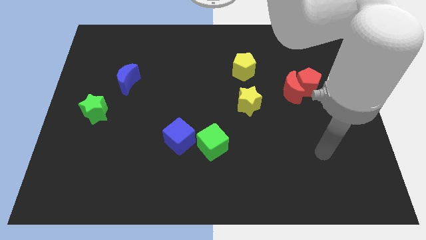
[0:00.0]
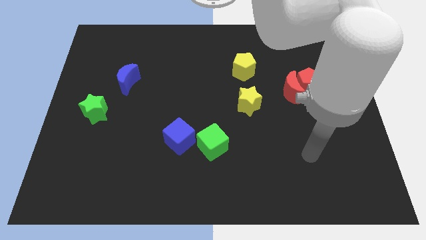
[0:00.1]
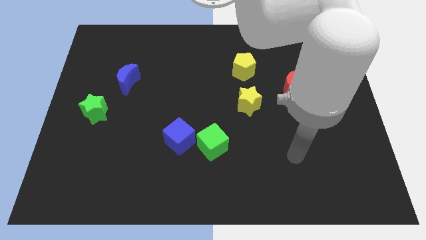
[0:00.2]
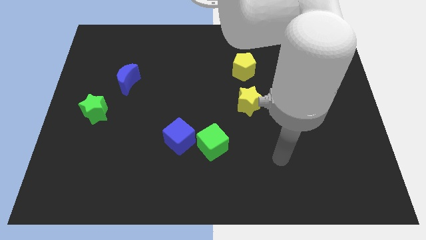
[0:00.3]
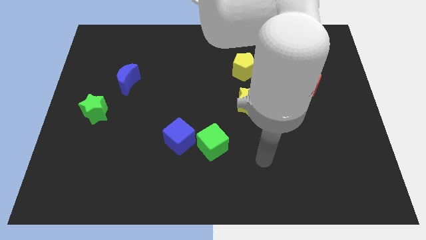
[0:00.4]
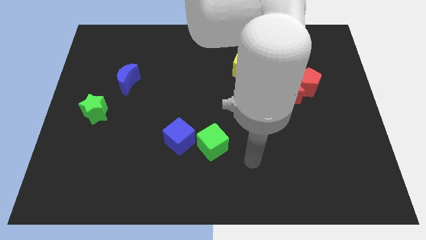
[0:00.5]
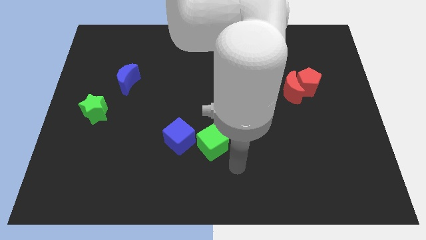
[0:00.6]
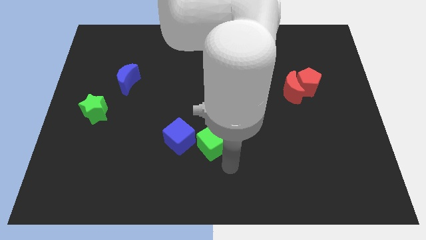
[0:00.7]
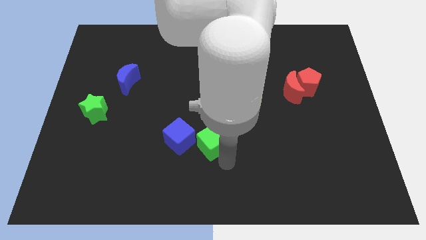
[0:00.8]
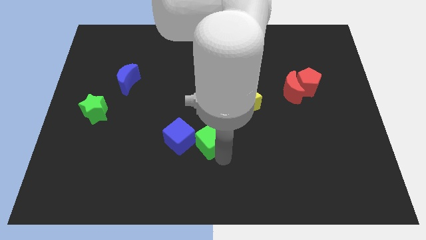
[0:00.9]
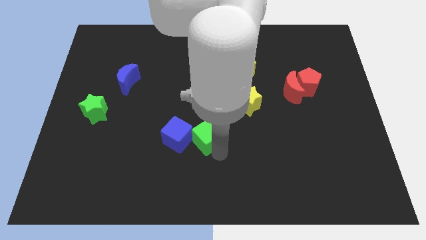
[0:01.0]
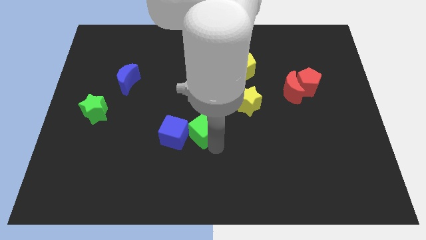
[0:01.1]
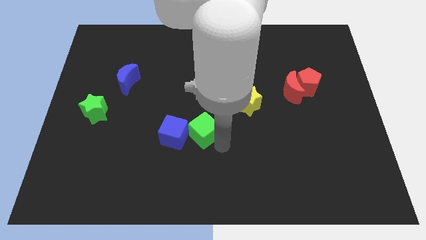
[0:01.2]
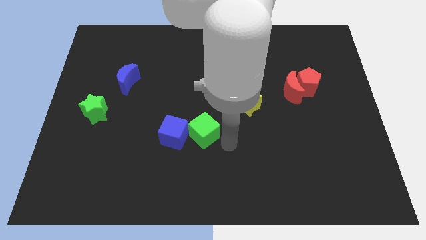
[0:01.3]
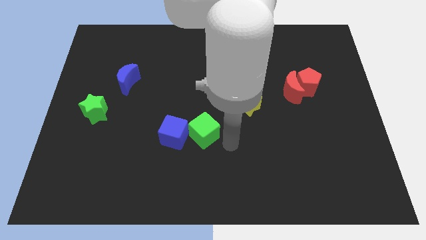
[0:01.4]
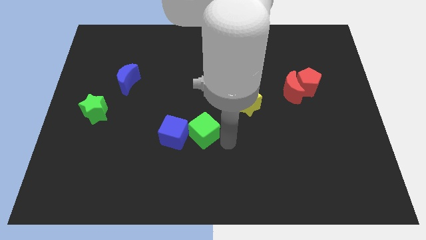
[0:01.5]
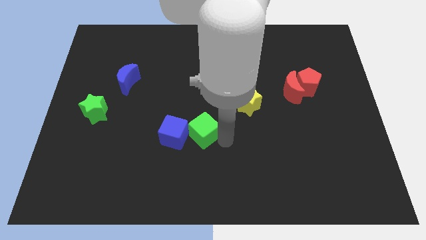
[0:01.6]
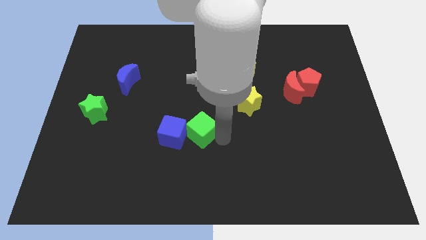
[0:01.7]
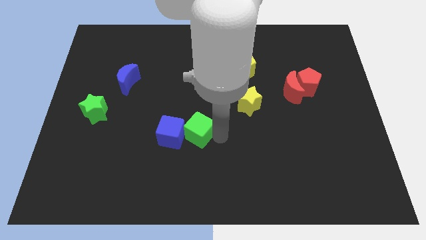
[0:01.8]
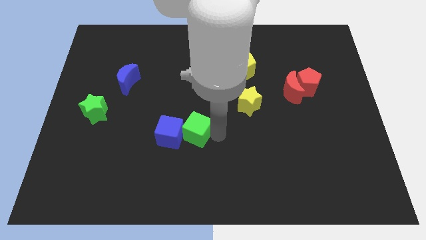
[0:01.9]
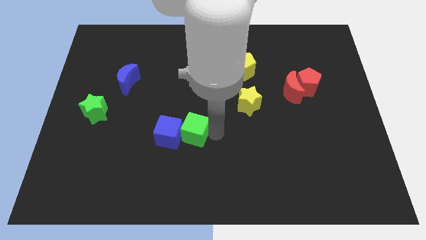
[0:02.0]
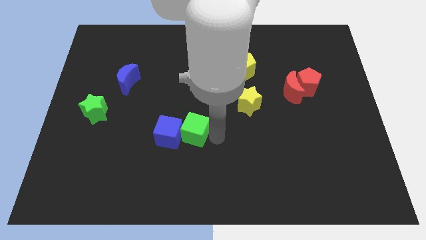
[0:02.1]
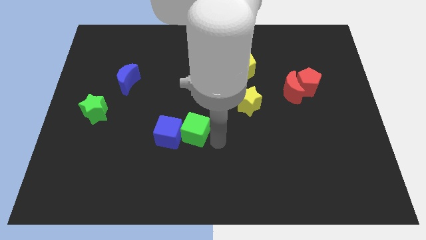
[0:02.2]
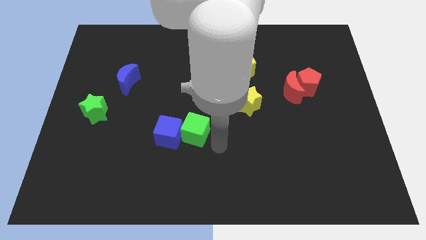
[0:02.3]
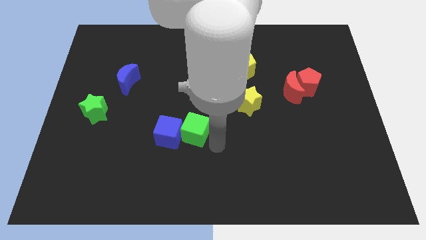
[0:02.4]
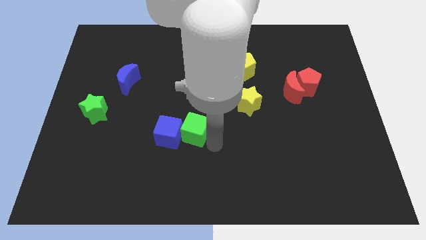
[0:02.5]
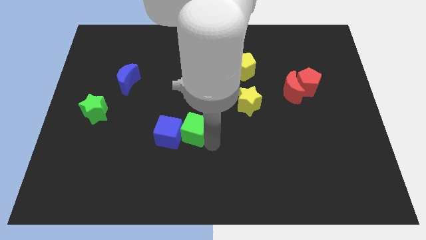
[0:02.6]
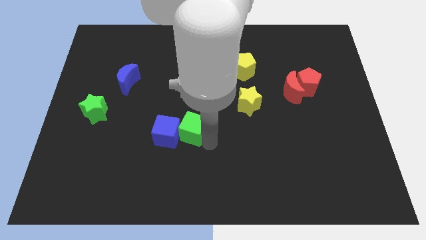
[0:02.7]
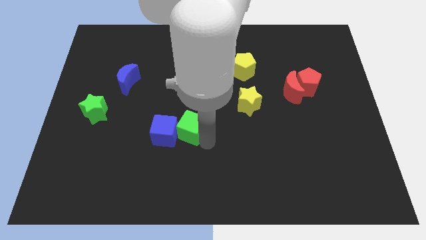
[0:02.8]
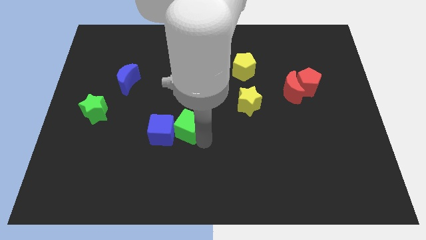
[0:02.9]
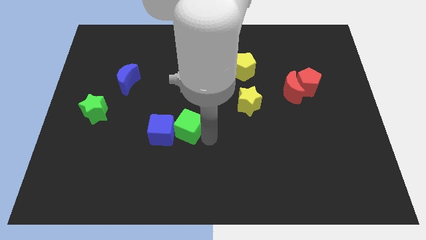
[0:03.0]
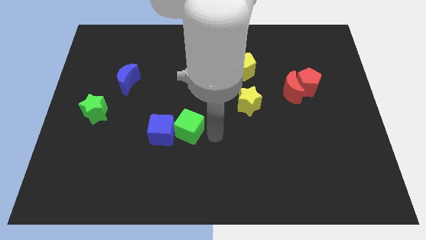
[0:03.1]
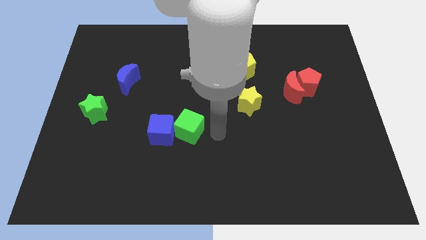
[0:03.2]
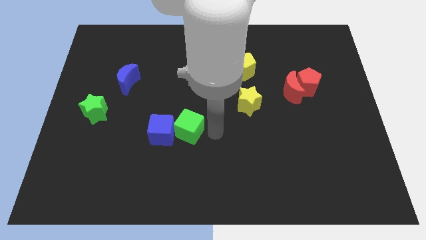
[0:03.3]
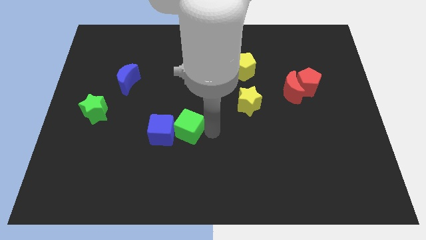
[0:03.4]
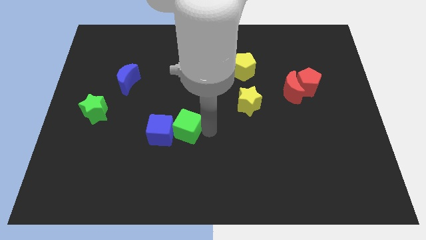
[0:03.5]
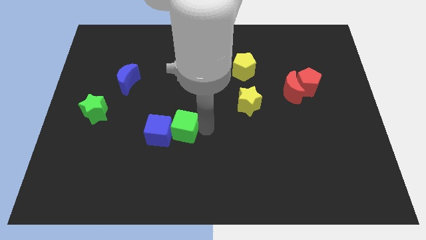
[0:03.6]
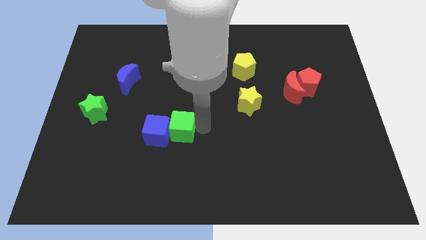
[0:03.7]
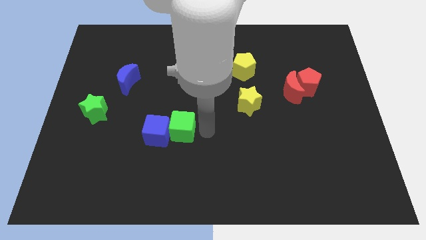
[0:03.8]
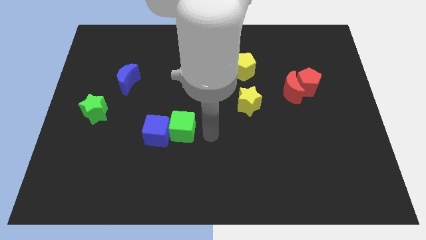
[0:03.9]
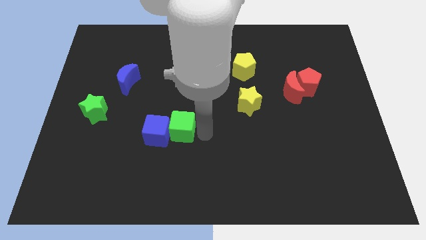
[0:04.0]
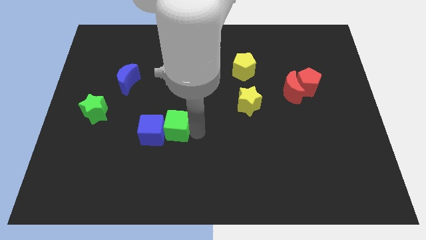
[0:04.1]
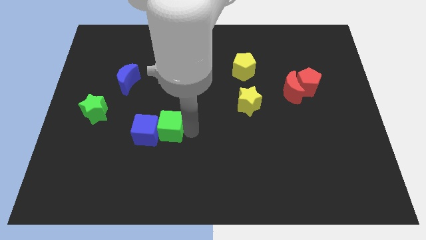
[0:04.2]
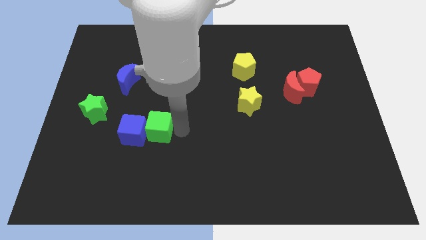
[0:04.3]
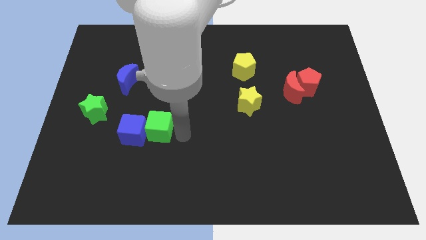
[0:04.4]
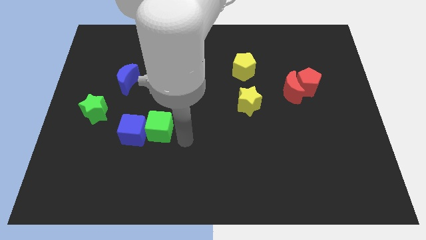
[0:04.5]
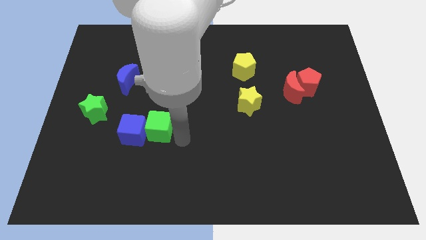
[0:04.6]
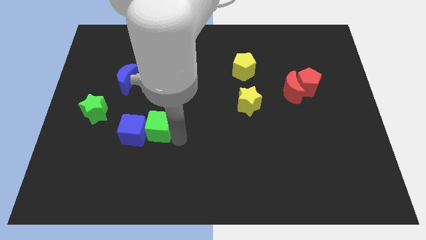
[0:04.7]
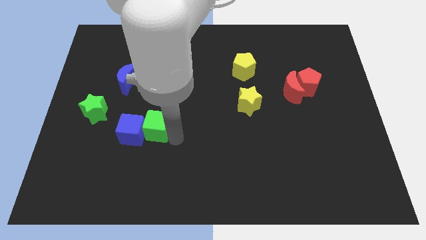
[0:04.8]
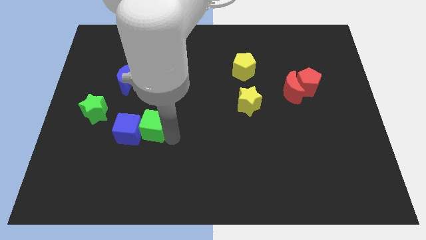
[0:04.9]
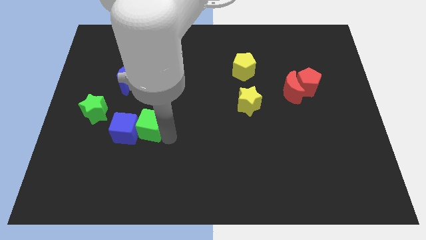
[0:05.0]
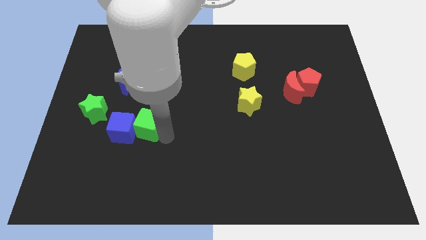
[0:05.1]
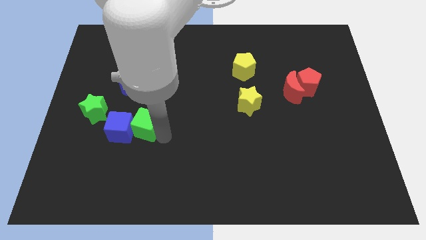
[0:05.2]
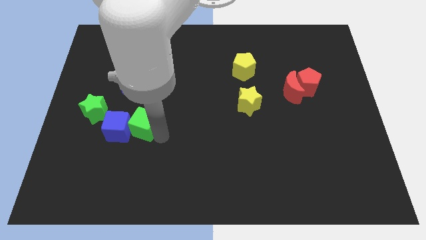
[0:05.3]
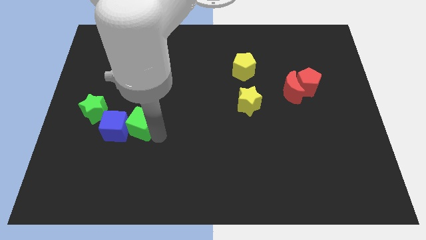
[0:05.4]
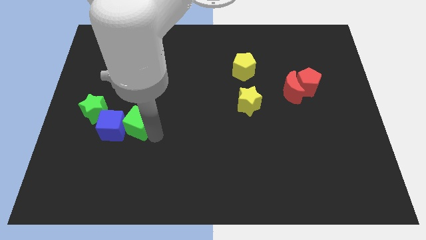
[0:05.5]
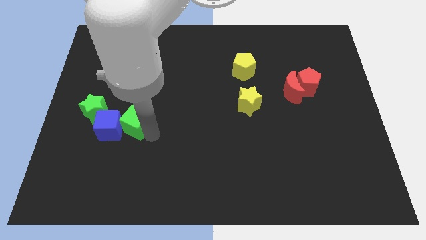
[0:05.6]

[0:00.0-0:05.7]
push the green cube below the blue moon

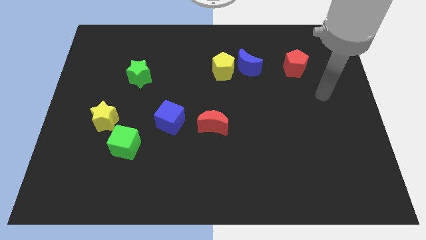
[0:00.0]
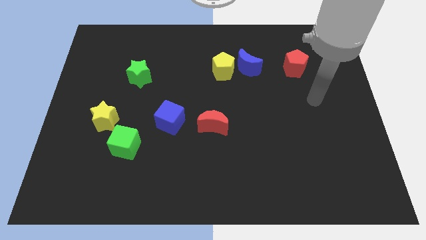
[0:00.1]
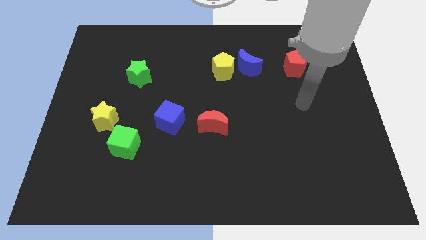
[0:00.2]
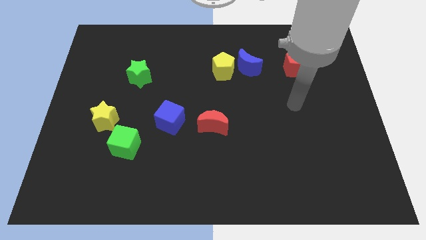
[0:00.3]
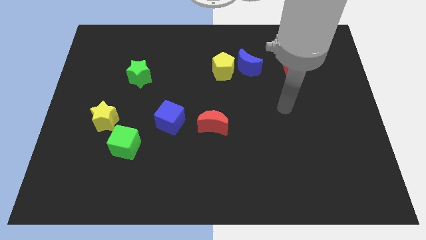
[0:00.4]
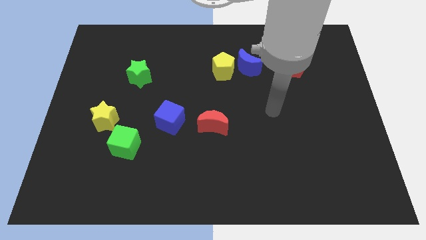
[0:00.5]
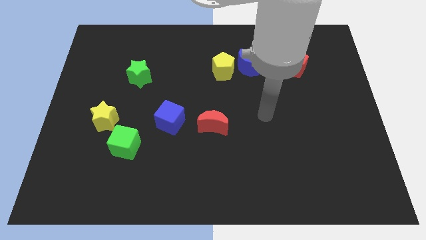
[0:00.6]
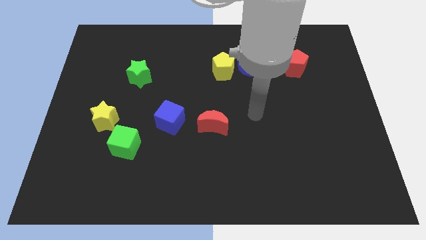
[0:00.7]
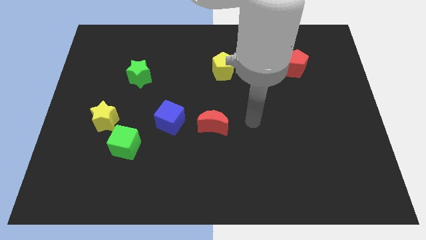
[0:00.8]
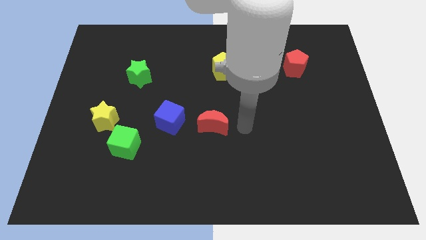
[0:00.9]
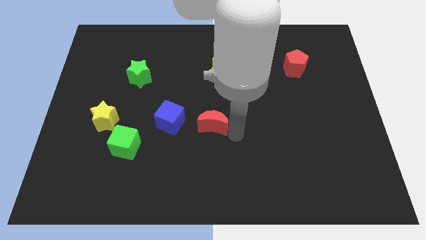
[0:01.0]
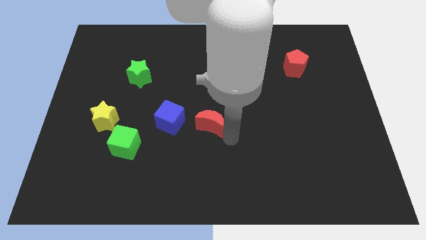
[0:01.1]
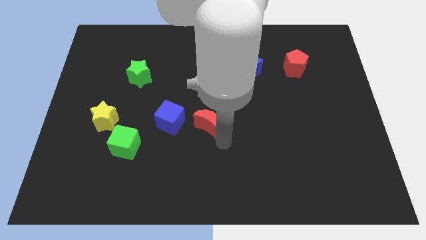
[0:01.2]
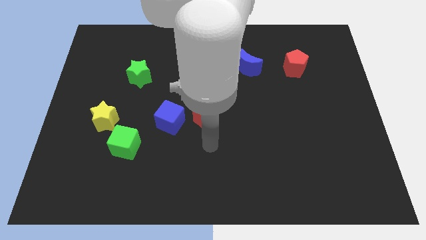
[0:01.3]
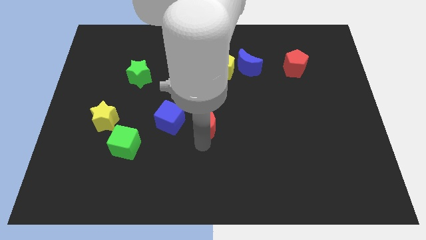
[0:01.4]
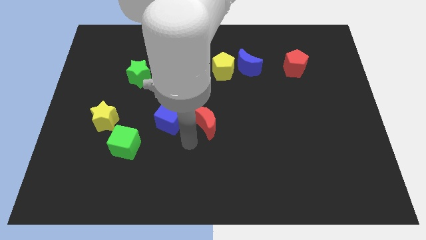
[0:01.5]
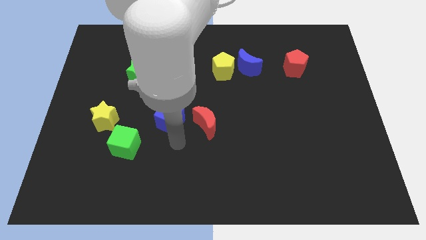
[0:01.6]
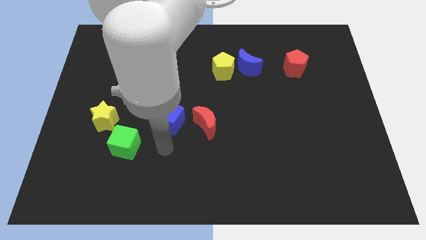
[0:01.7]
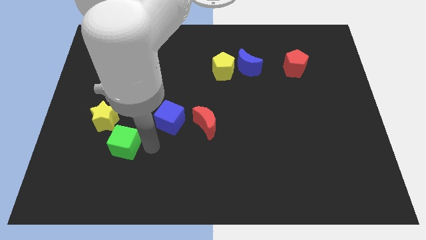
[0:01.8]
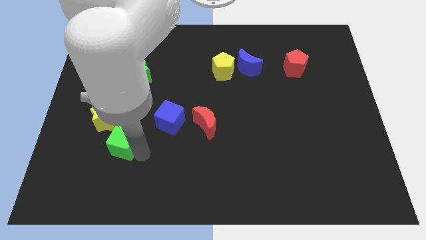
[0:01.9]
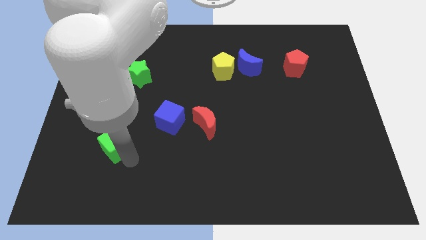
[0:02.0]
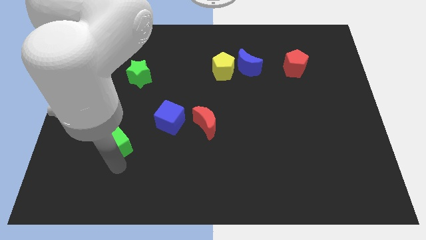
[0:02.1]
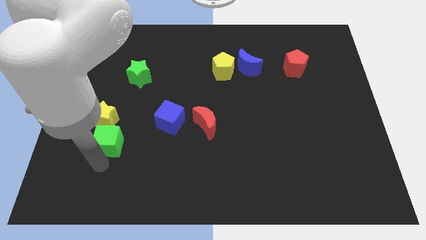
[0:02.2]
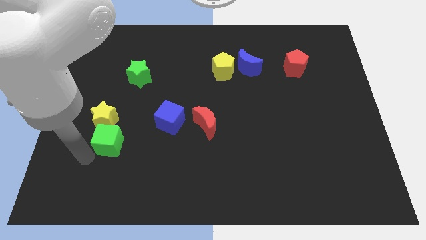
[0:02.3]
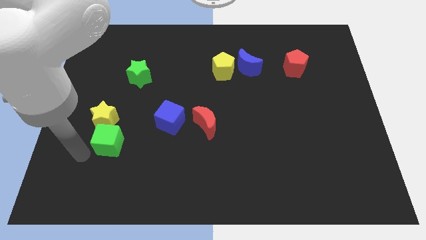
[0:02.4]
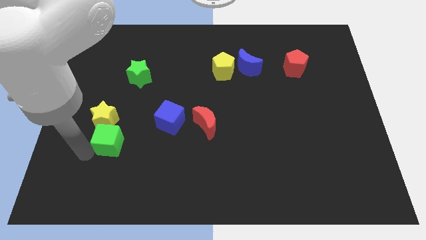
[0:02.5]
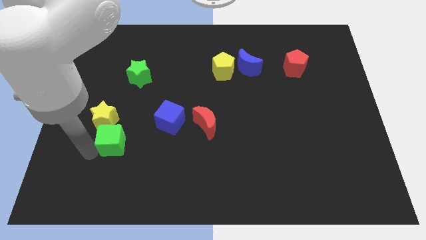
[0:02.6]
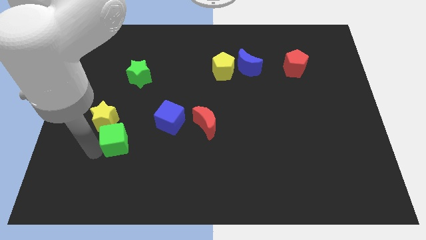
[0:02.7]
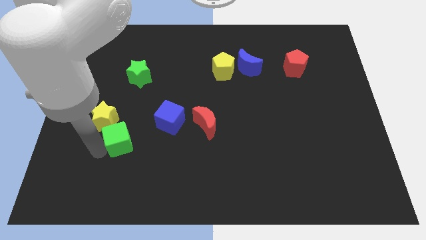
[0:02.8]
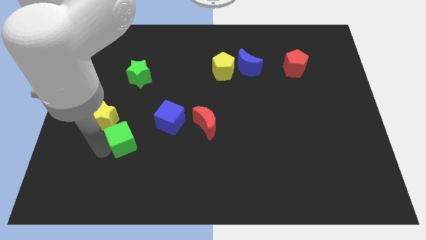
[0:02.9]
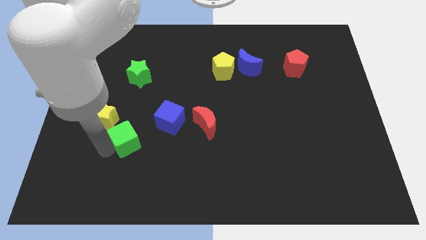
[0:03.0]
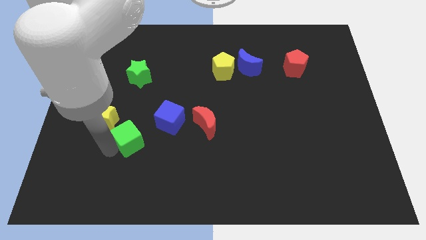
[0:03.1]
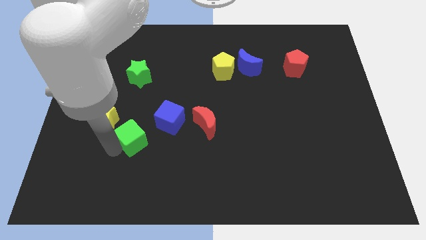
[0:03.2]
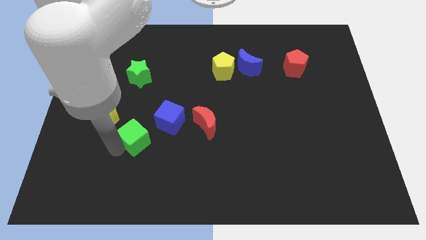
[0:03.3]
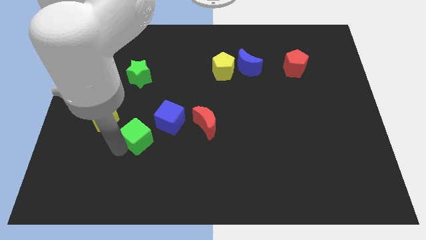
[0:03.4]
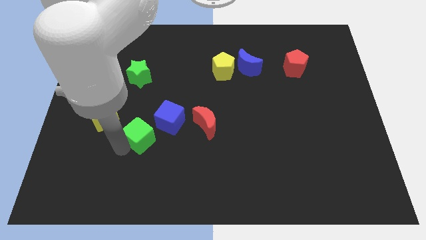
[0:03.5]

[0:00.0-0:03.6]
put the green cube left of the red moon
